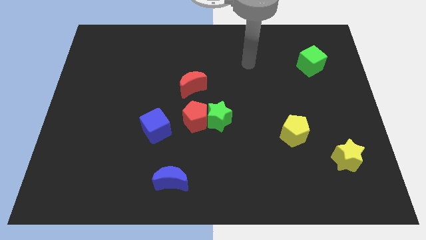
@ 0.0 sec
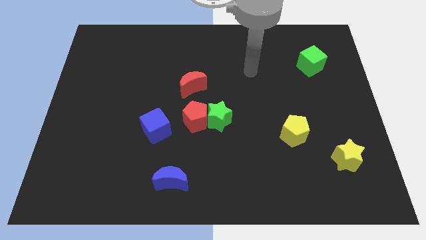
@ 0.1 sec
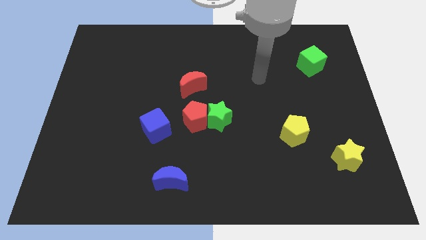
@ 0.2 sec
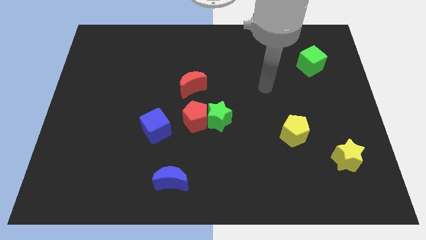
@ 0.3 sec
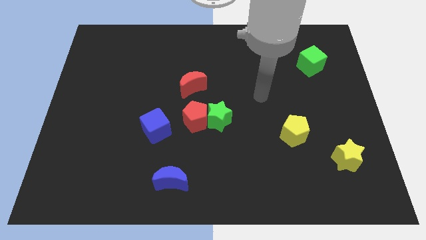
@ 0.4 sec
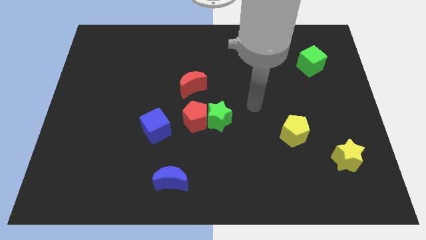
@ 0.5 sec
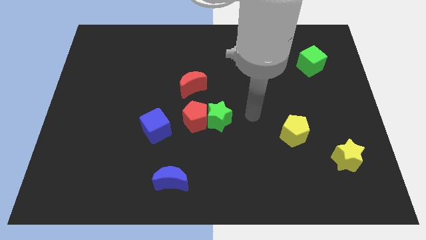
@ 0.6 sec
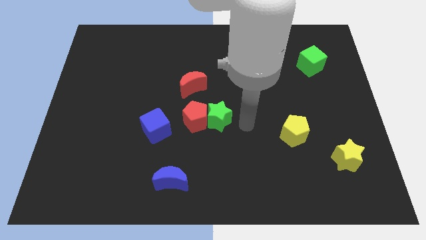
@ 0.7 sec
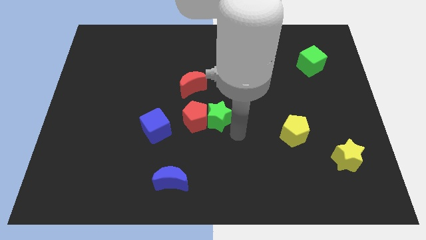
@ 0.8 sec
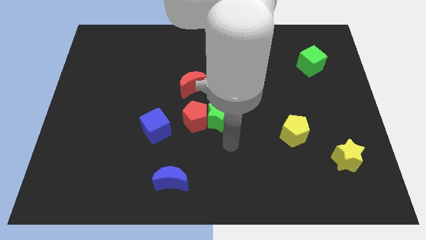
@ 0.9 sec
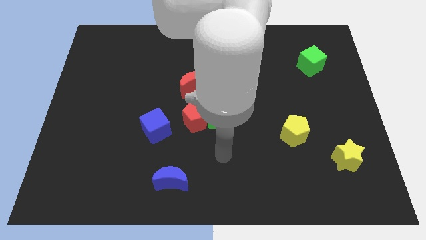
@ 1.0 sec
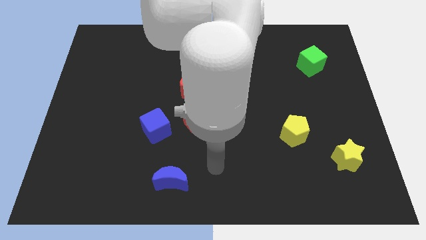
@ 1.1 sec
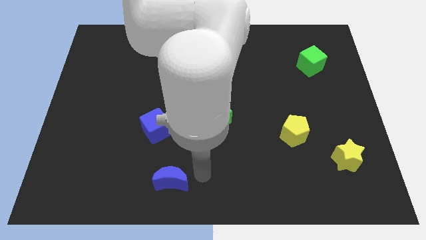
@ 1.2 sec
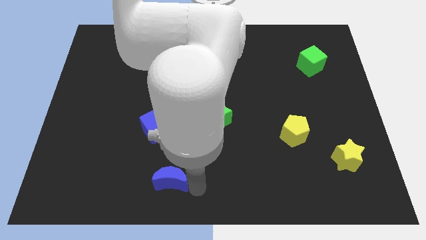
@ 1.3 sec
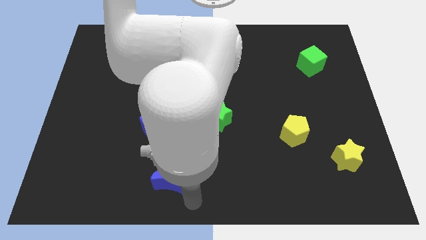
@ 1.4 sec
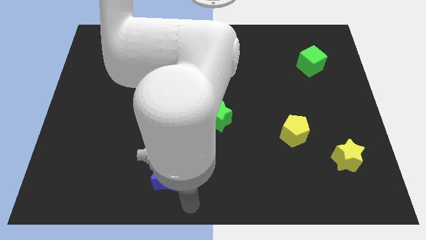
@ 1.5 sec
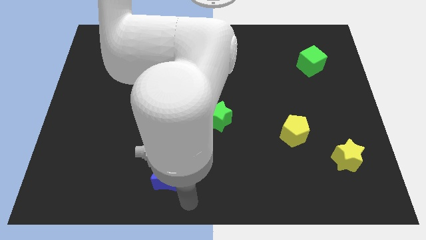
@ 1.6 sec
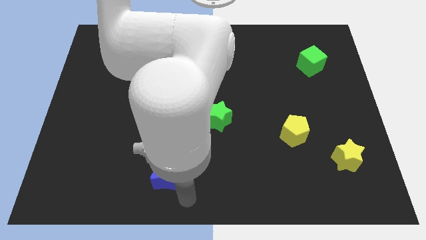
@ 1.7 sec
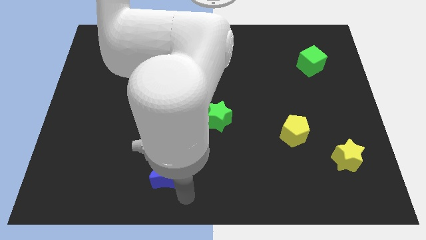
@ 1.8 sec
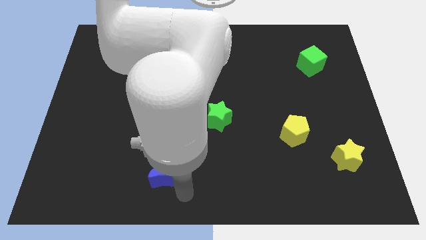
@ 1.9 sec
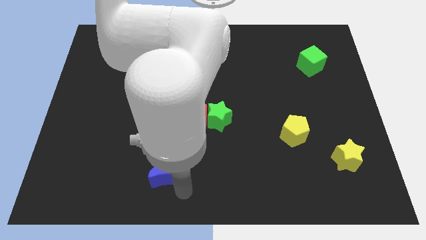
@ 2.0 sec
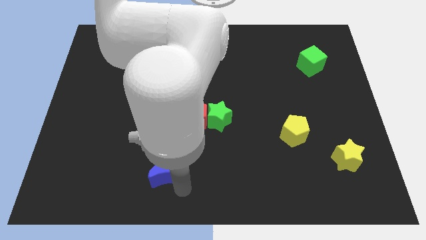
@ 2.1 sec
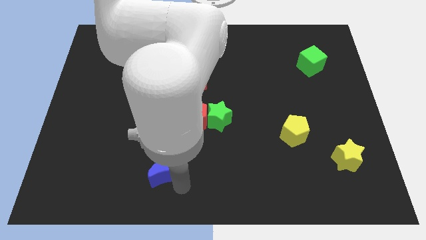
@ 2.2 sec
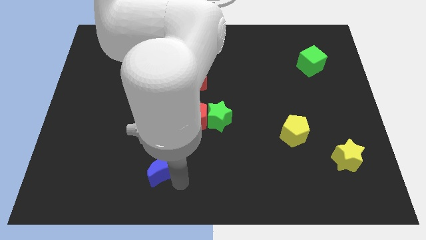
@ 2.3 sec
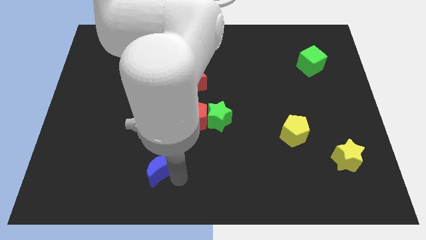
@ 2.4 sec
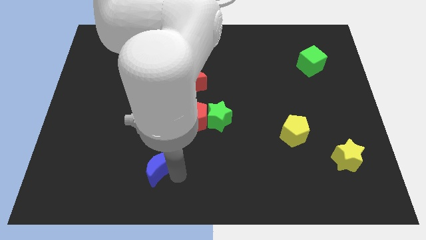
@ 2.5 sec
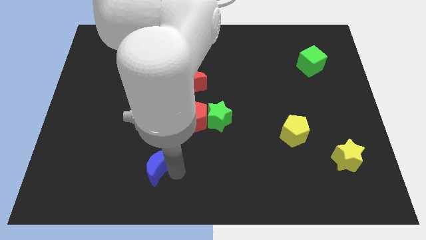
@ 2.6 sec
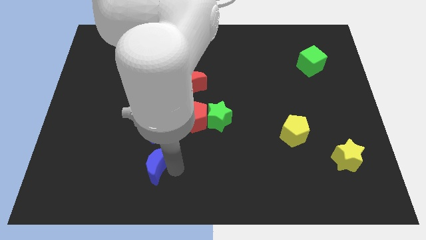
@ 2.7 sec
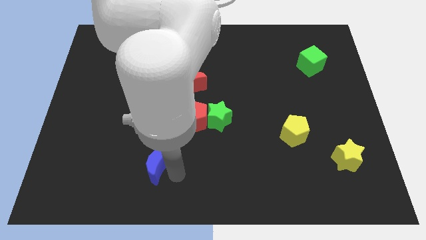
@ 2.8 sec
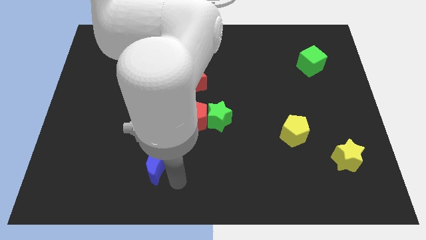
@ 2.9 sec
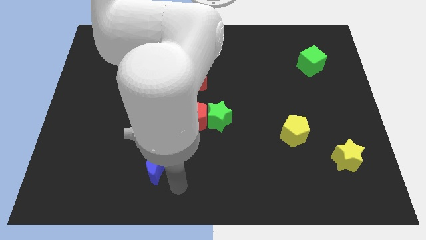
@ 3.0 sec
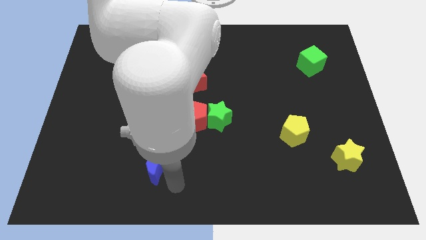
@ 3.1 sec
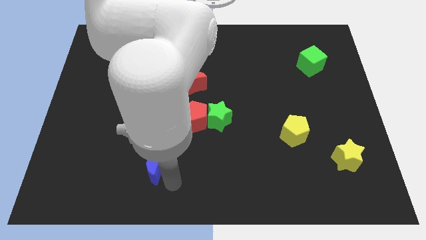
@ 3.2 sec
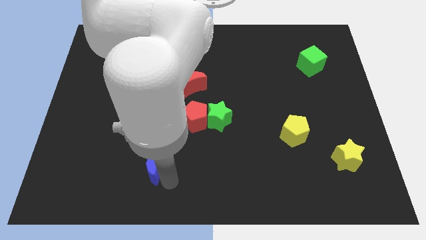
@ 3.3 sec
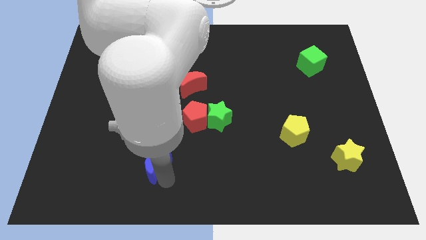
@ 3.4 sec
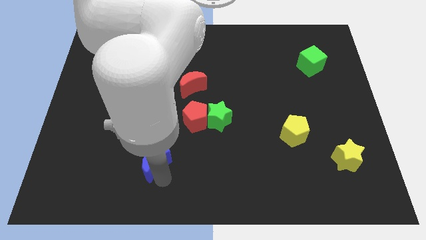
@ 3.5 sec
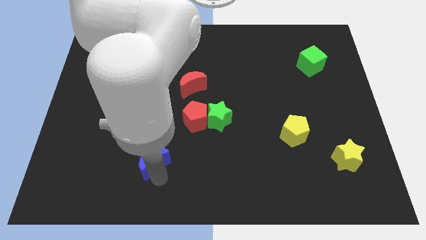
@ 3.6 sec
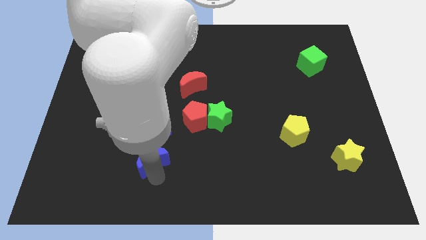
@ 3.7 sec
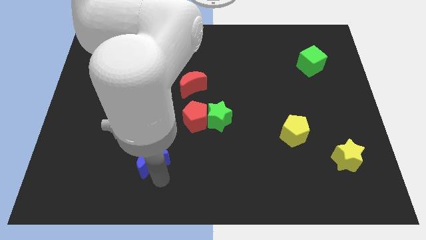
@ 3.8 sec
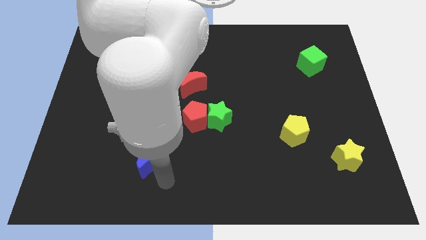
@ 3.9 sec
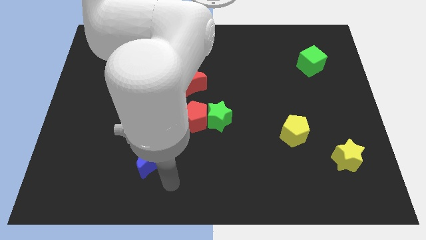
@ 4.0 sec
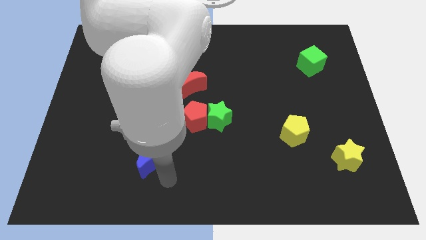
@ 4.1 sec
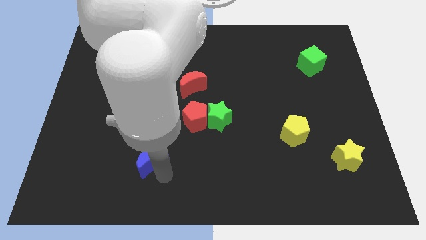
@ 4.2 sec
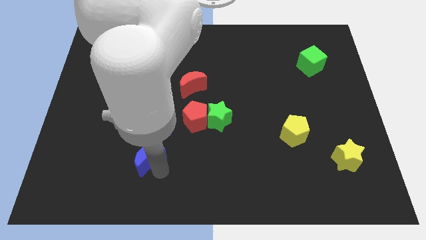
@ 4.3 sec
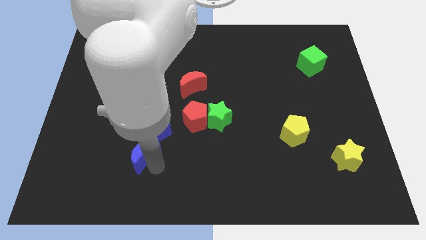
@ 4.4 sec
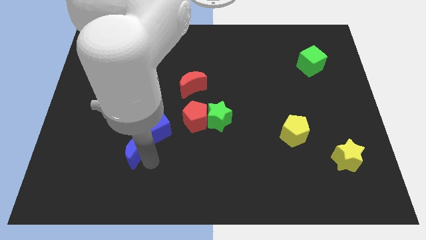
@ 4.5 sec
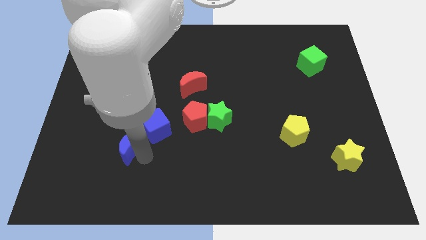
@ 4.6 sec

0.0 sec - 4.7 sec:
push the blue moon to the left of the blue cube

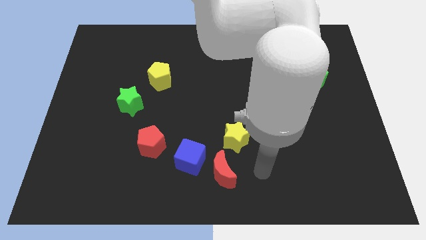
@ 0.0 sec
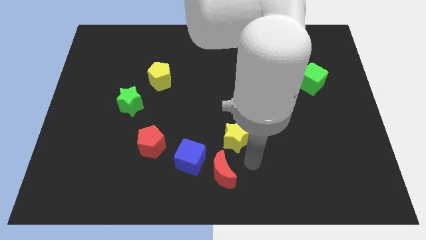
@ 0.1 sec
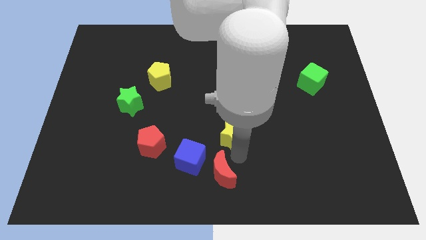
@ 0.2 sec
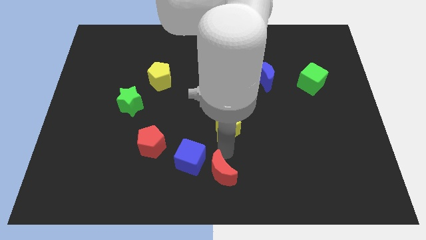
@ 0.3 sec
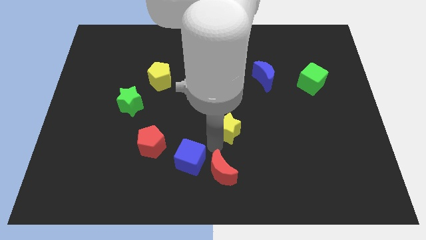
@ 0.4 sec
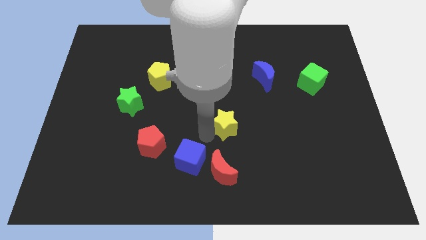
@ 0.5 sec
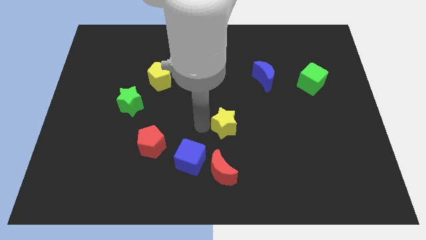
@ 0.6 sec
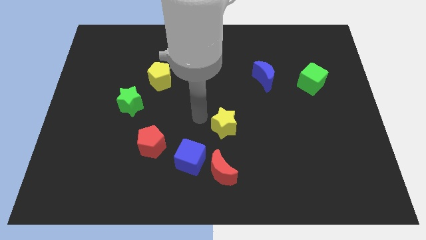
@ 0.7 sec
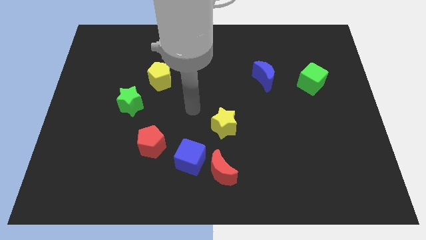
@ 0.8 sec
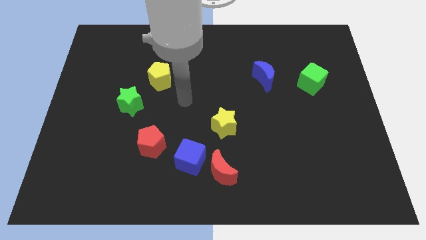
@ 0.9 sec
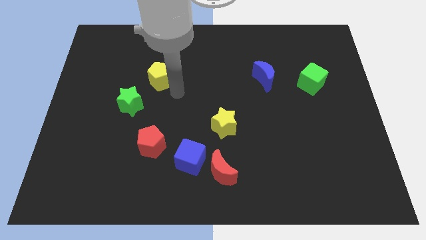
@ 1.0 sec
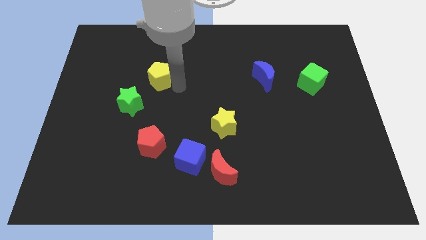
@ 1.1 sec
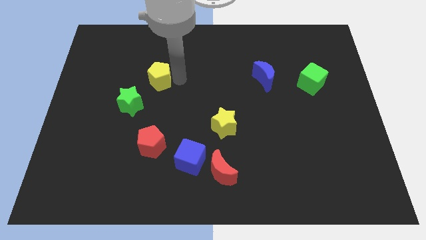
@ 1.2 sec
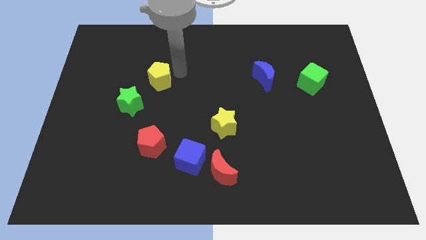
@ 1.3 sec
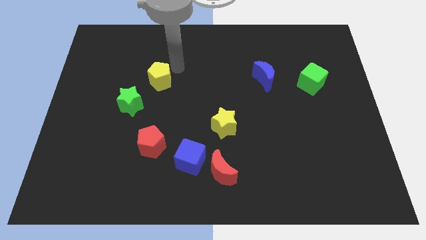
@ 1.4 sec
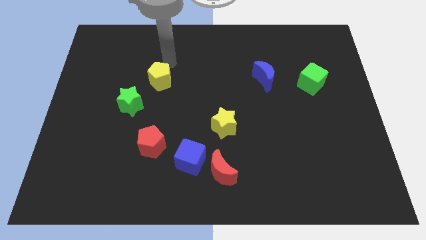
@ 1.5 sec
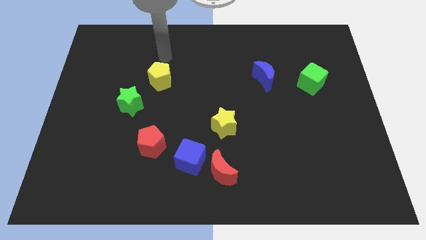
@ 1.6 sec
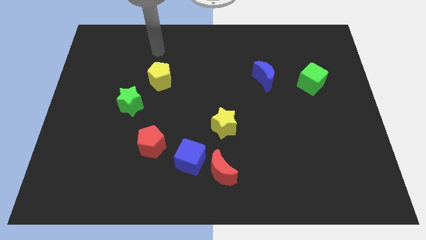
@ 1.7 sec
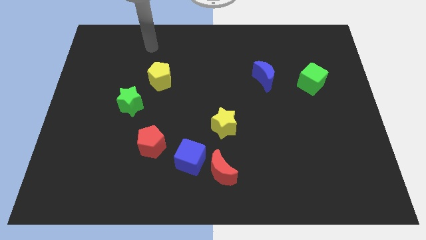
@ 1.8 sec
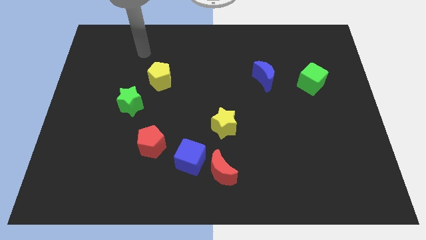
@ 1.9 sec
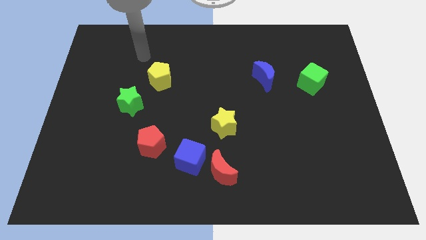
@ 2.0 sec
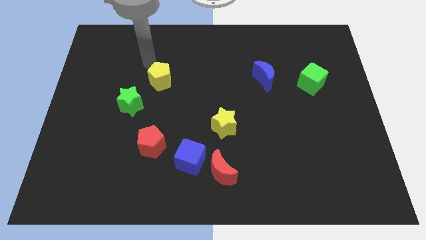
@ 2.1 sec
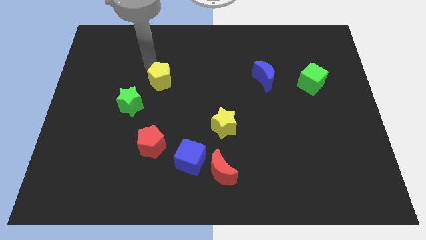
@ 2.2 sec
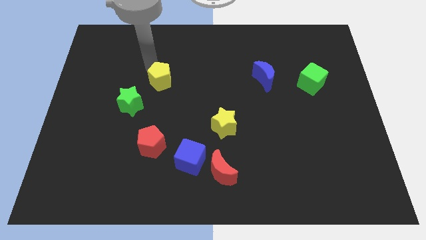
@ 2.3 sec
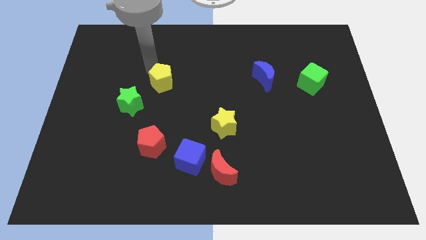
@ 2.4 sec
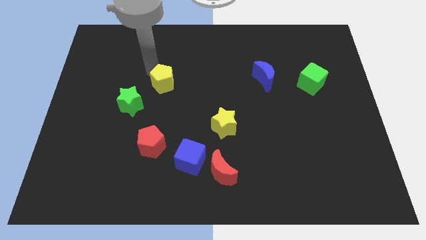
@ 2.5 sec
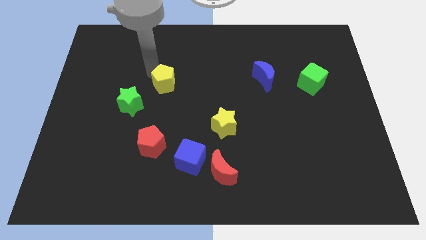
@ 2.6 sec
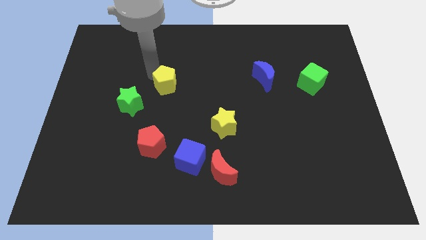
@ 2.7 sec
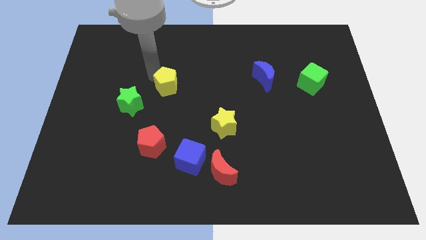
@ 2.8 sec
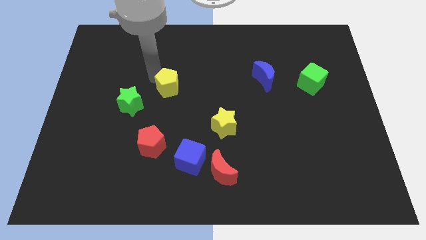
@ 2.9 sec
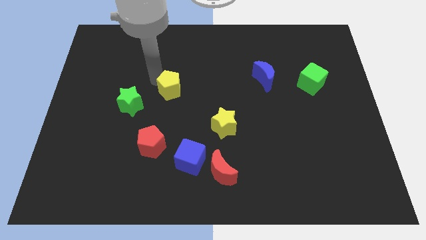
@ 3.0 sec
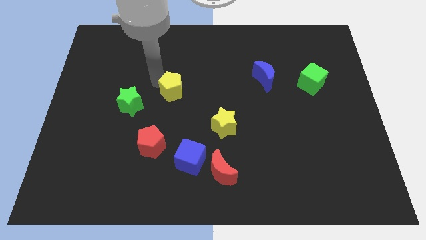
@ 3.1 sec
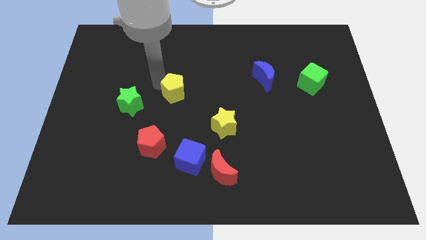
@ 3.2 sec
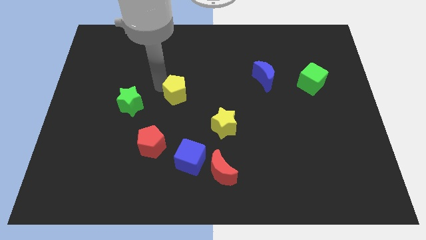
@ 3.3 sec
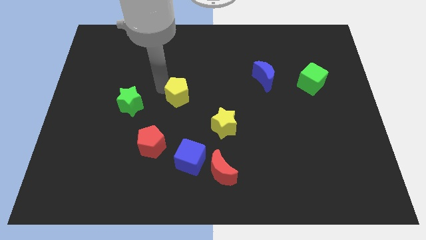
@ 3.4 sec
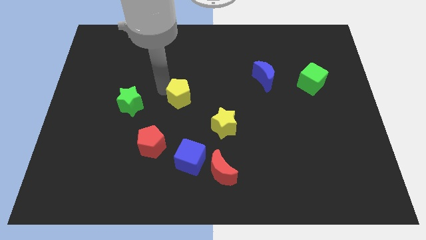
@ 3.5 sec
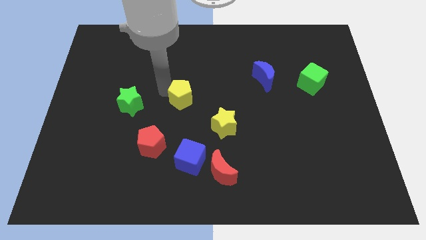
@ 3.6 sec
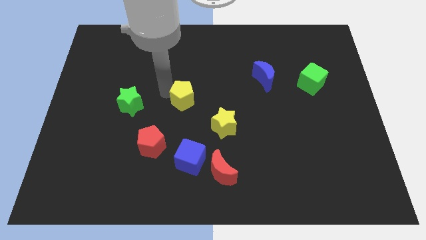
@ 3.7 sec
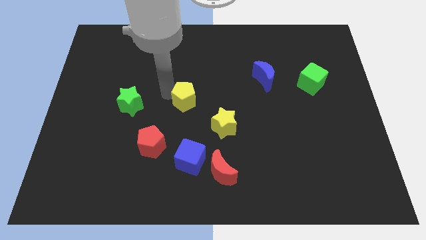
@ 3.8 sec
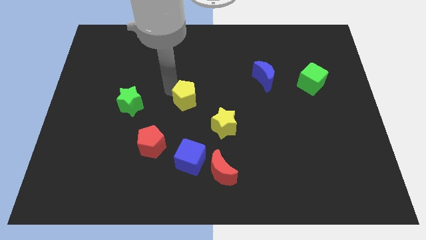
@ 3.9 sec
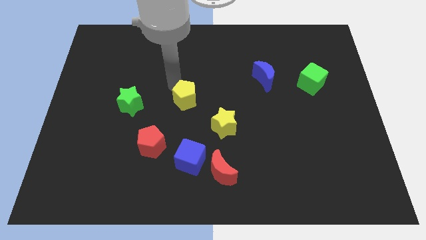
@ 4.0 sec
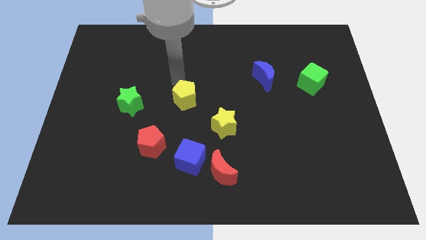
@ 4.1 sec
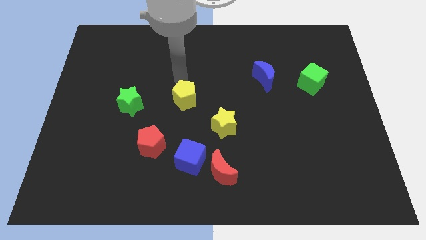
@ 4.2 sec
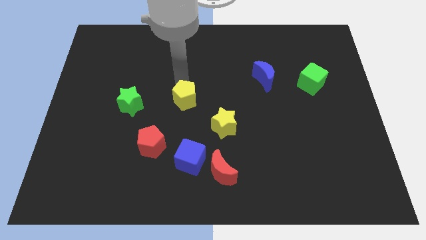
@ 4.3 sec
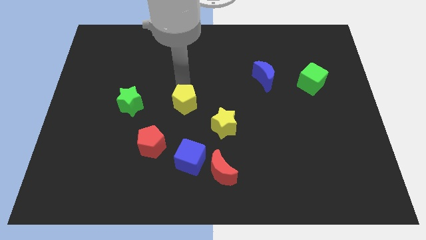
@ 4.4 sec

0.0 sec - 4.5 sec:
put the yellow pentagon above the blue cube
